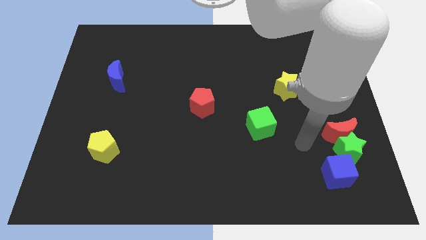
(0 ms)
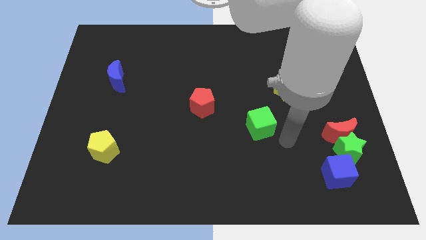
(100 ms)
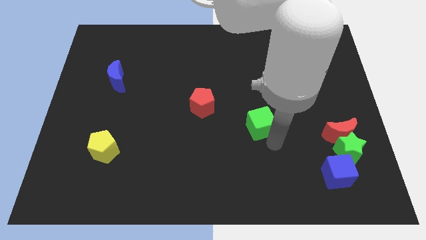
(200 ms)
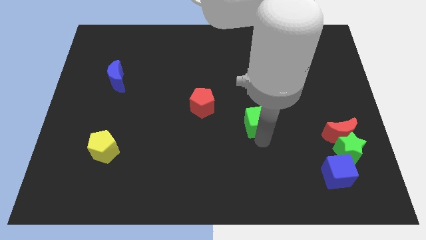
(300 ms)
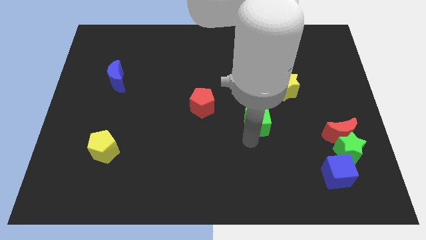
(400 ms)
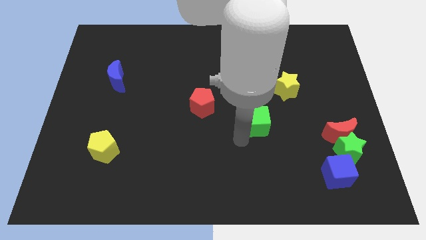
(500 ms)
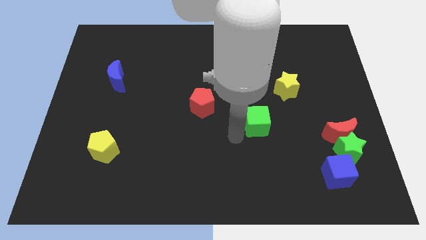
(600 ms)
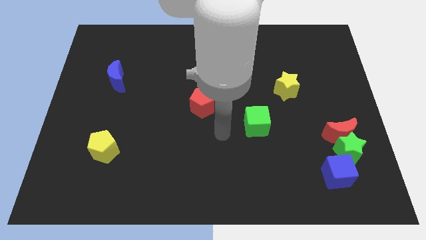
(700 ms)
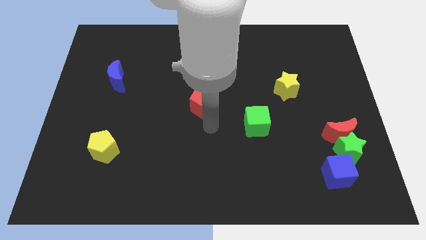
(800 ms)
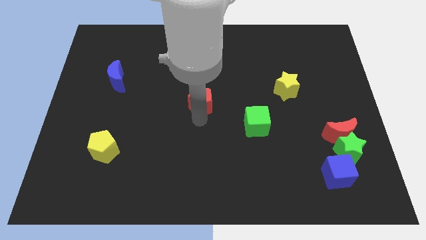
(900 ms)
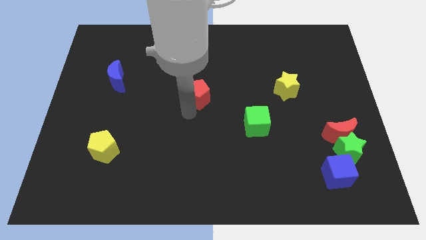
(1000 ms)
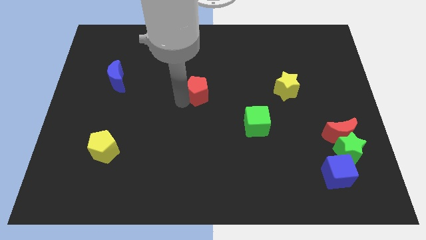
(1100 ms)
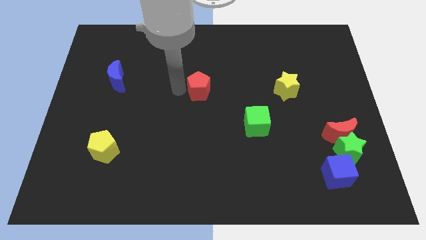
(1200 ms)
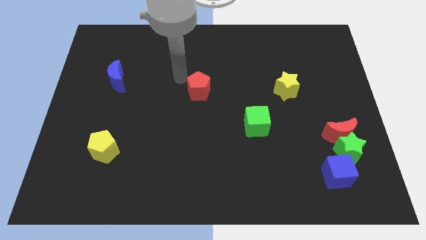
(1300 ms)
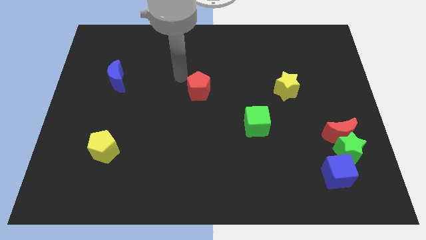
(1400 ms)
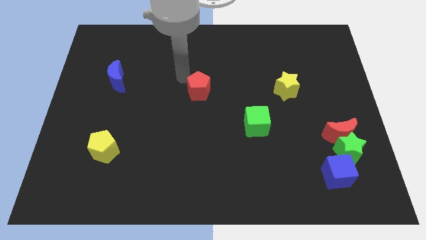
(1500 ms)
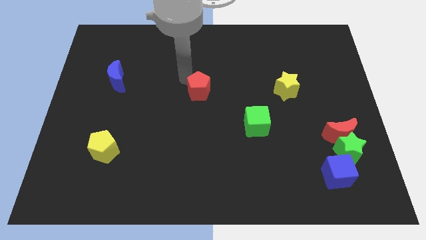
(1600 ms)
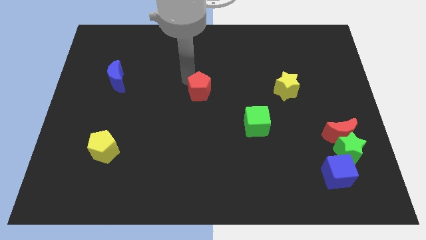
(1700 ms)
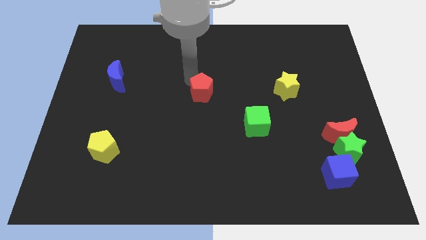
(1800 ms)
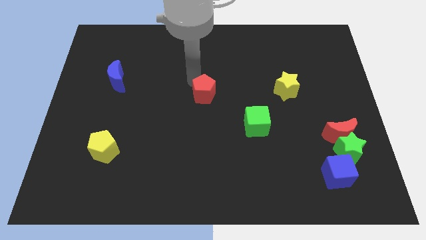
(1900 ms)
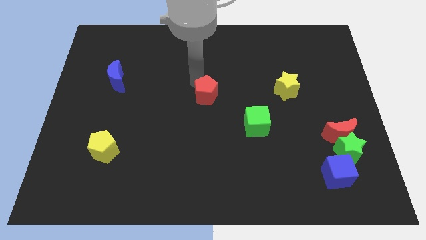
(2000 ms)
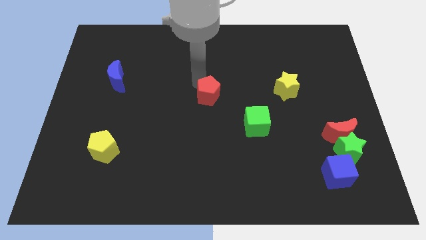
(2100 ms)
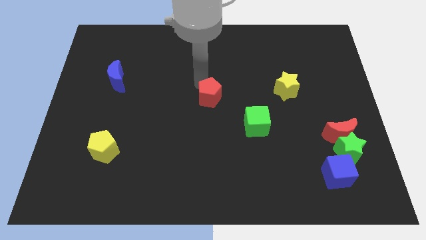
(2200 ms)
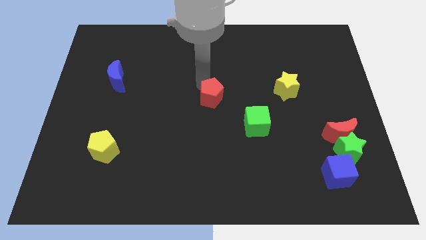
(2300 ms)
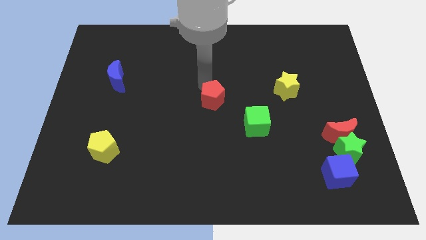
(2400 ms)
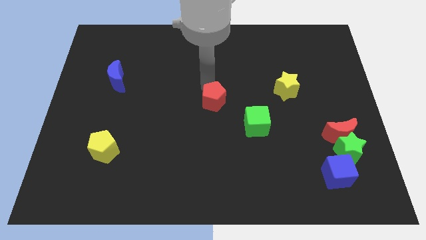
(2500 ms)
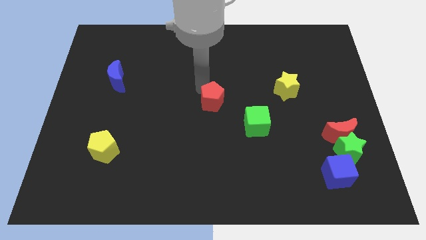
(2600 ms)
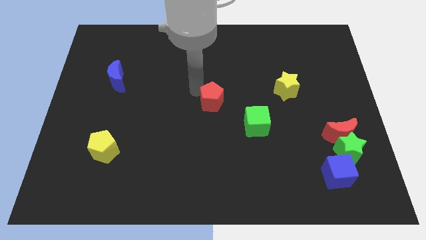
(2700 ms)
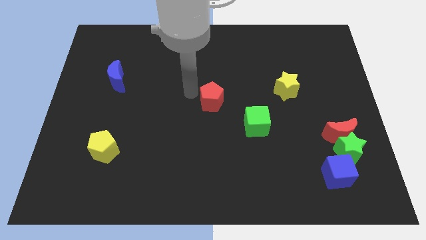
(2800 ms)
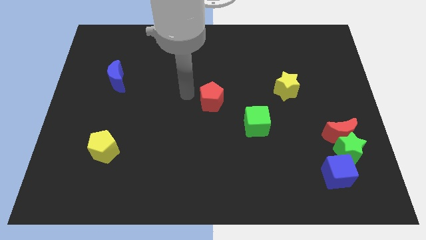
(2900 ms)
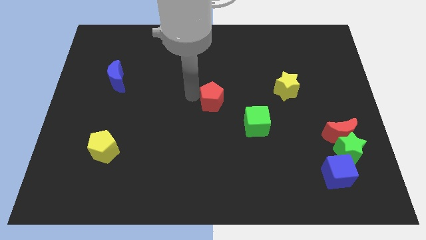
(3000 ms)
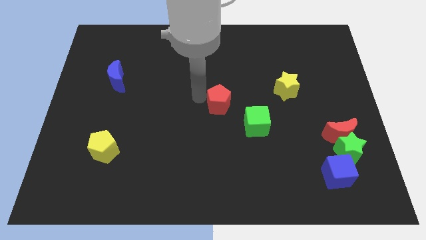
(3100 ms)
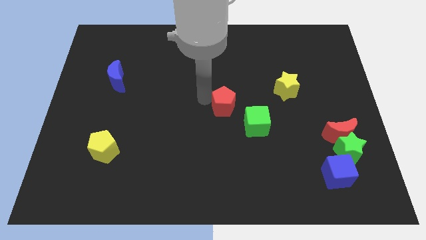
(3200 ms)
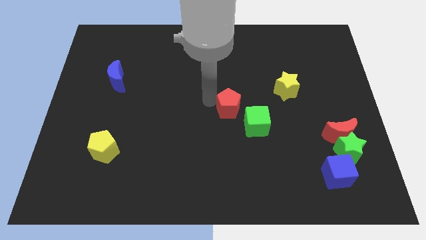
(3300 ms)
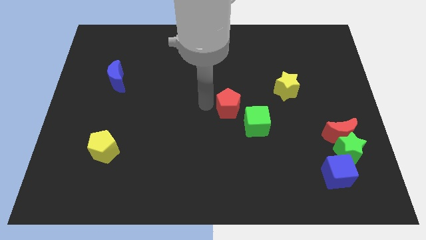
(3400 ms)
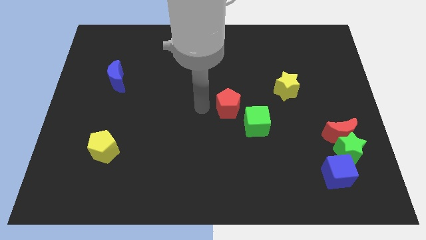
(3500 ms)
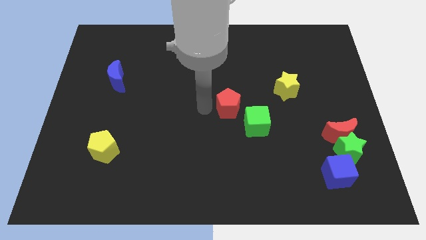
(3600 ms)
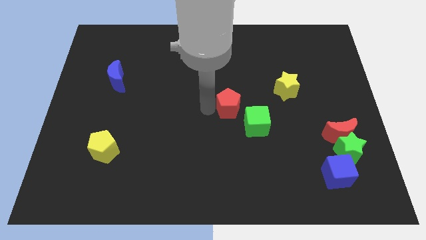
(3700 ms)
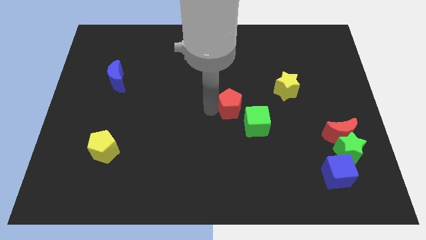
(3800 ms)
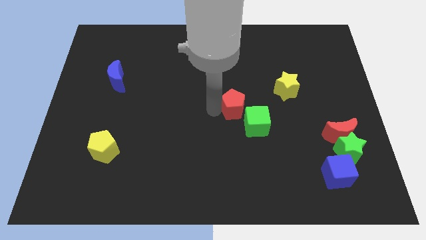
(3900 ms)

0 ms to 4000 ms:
slide the red pentagon to the right slightly

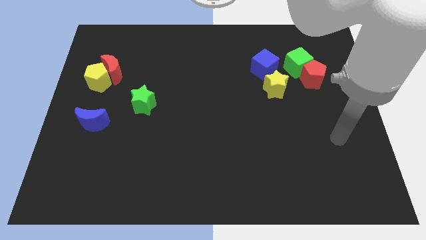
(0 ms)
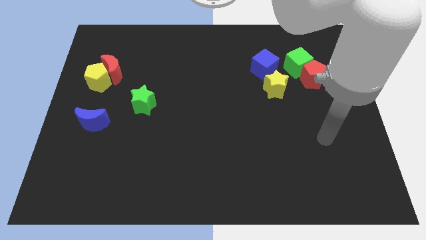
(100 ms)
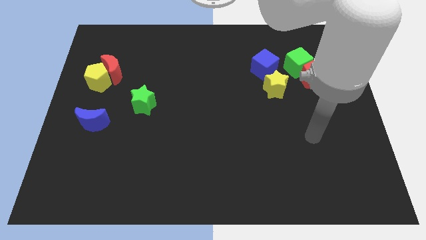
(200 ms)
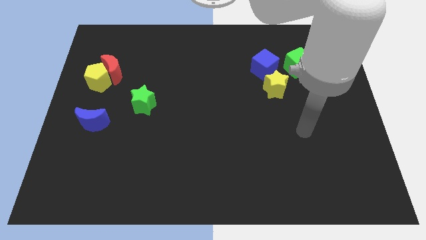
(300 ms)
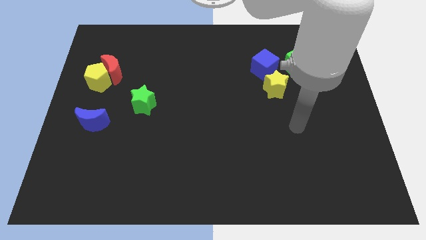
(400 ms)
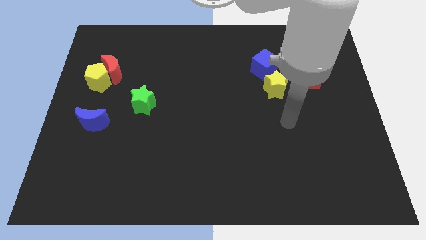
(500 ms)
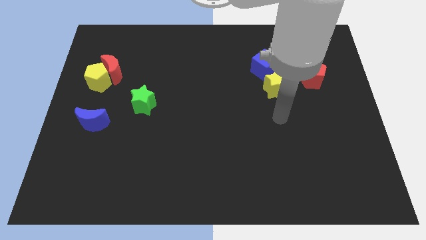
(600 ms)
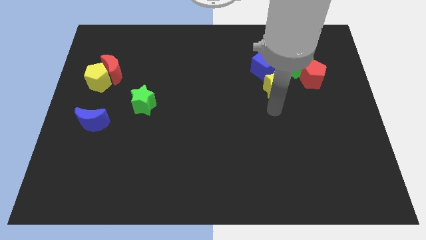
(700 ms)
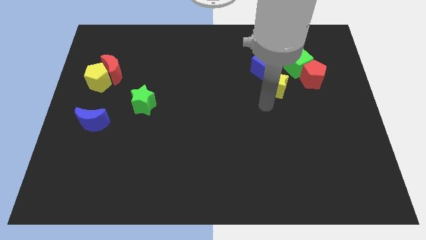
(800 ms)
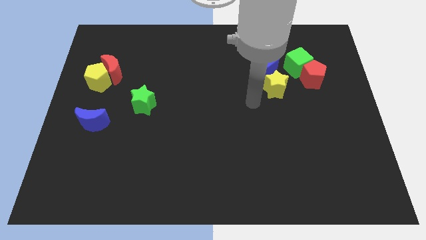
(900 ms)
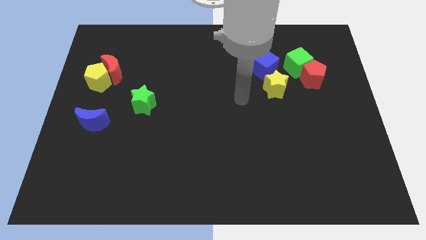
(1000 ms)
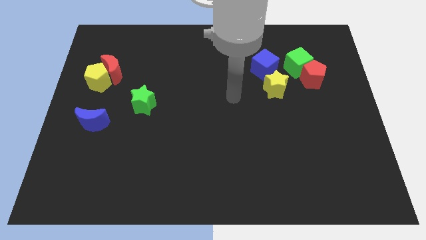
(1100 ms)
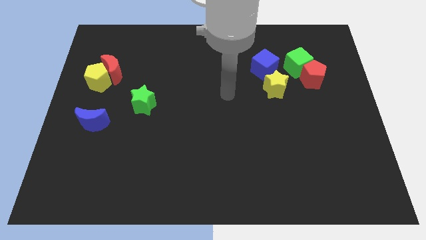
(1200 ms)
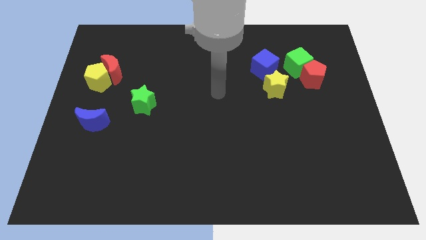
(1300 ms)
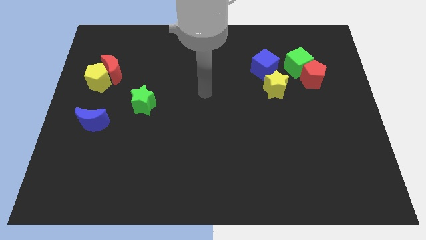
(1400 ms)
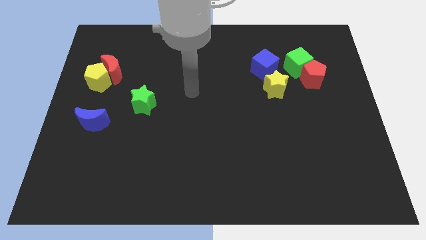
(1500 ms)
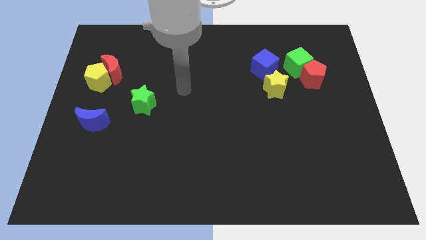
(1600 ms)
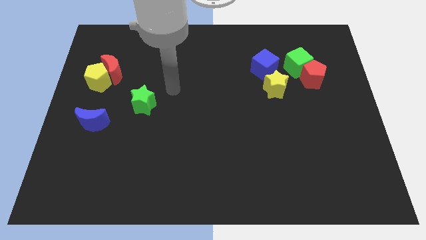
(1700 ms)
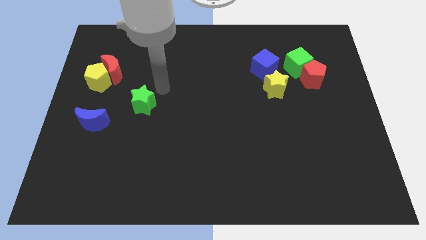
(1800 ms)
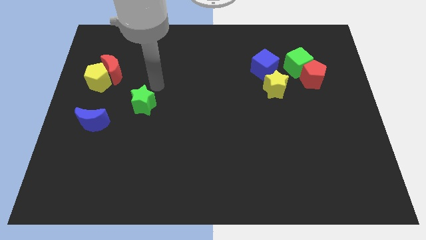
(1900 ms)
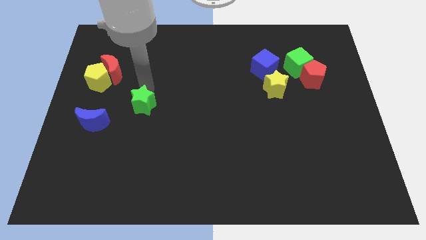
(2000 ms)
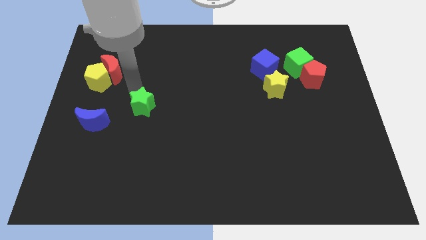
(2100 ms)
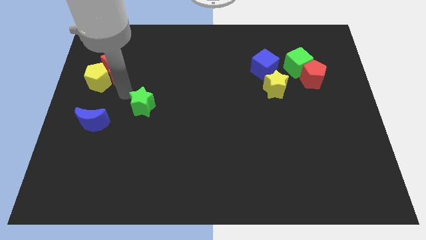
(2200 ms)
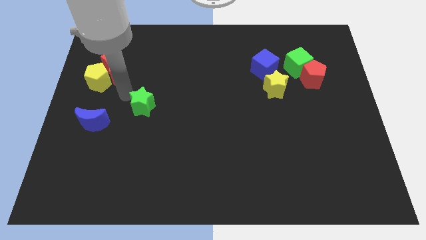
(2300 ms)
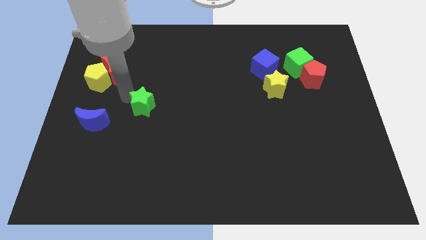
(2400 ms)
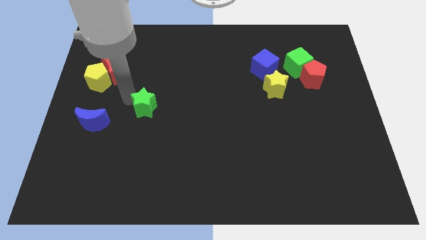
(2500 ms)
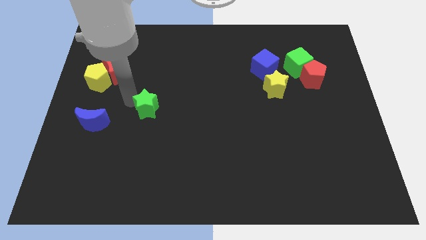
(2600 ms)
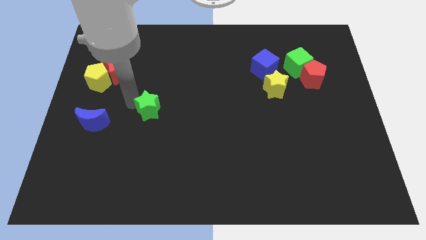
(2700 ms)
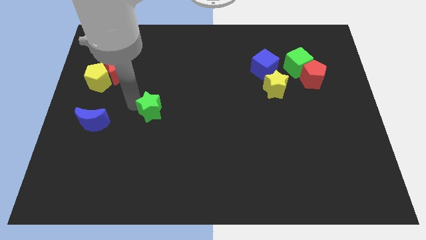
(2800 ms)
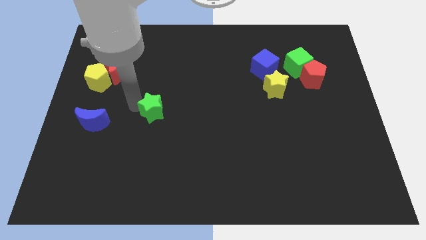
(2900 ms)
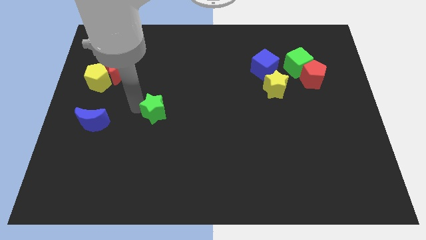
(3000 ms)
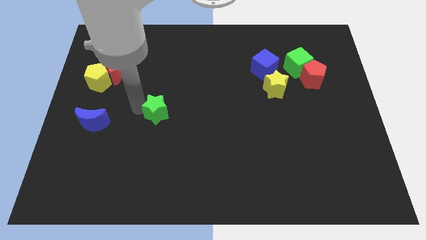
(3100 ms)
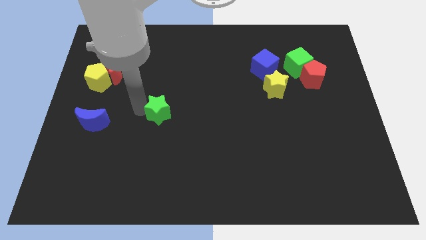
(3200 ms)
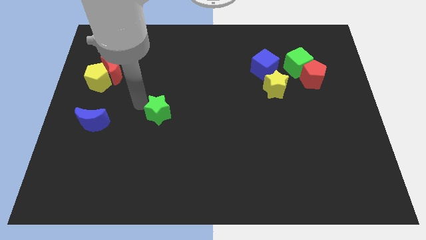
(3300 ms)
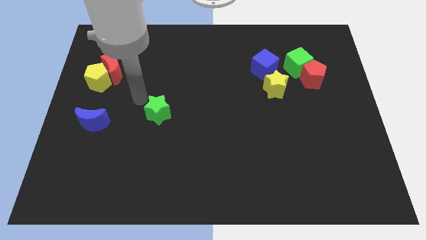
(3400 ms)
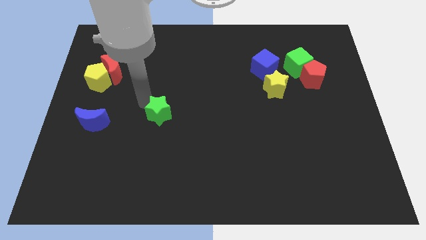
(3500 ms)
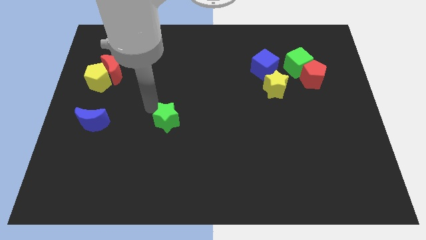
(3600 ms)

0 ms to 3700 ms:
push the green star down and right somewhat

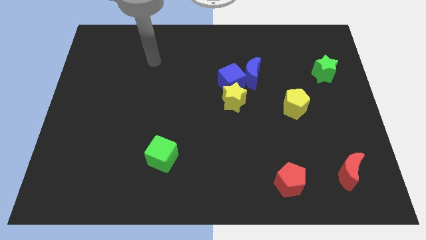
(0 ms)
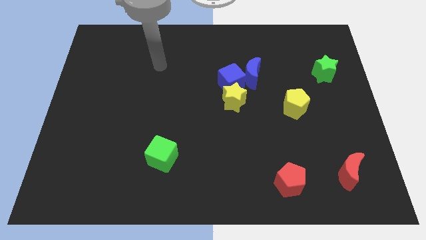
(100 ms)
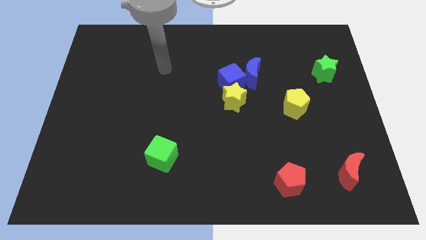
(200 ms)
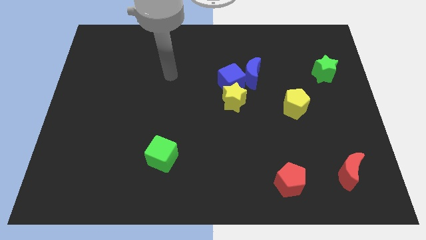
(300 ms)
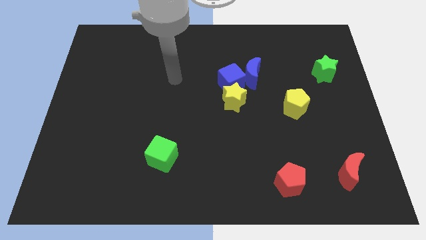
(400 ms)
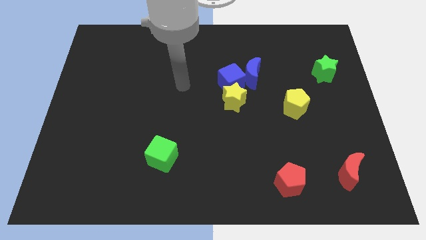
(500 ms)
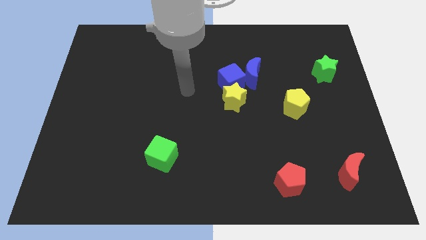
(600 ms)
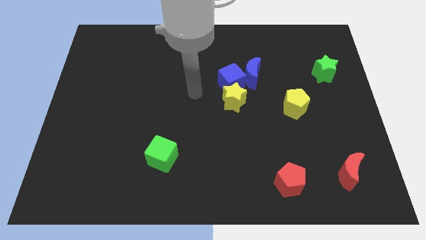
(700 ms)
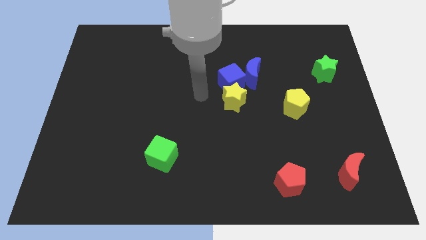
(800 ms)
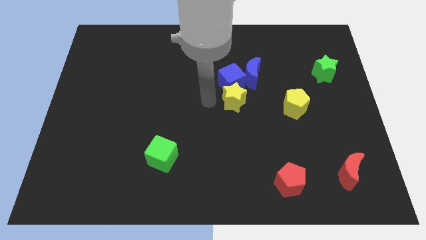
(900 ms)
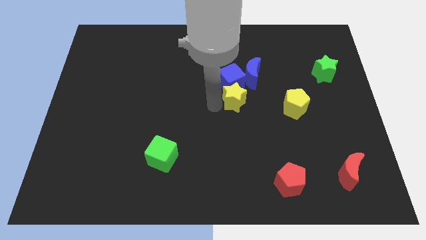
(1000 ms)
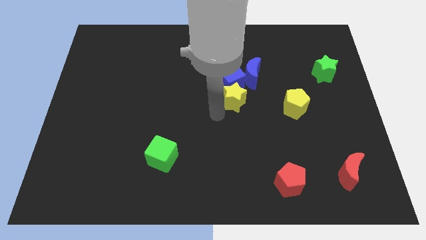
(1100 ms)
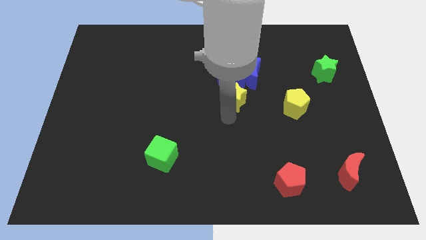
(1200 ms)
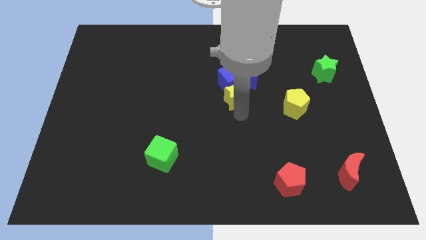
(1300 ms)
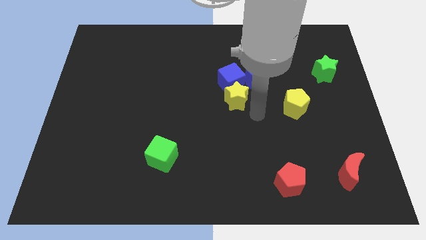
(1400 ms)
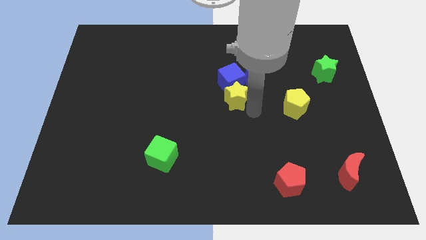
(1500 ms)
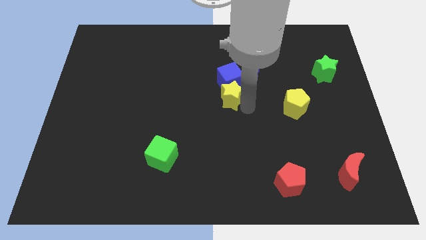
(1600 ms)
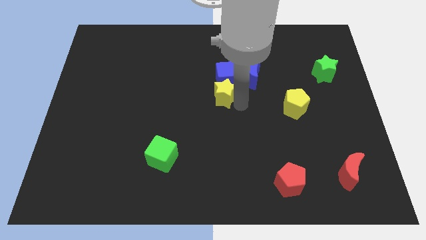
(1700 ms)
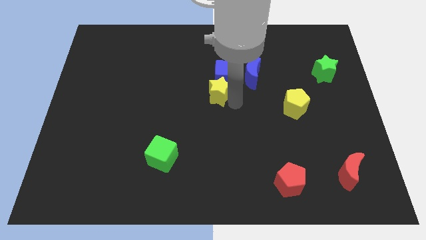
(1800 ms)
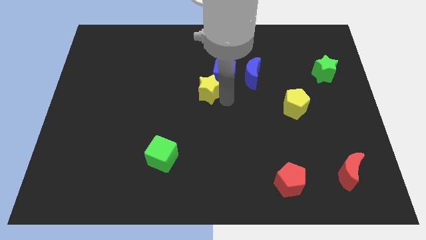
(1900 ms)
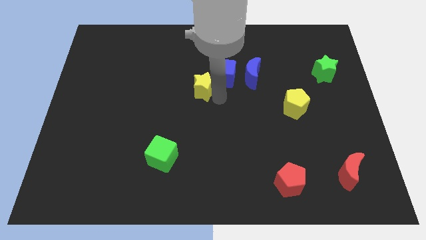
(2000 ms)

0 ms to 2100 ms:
push the yellow star a little bit up and then to the left
